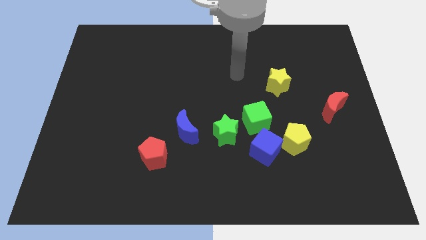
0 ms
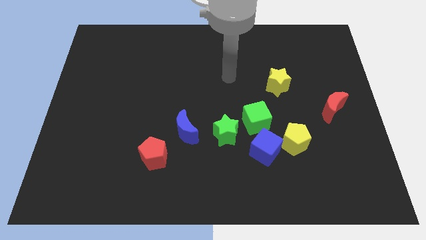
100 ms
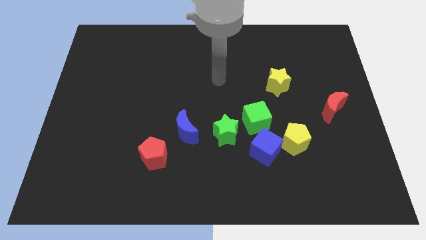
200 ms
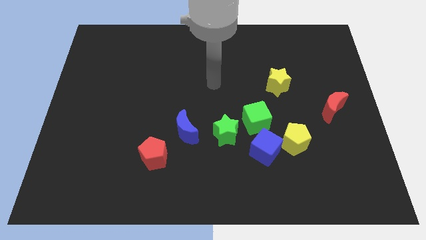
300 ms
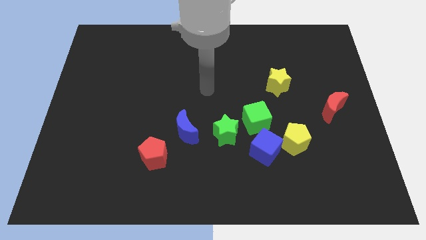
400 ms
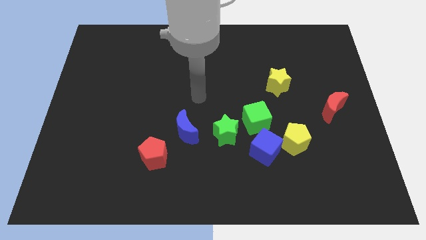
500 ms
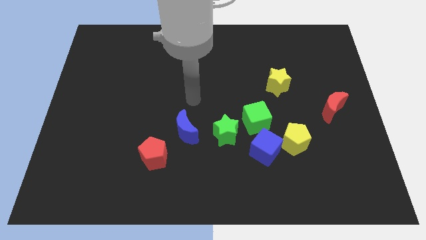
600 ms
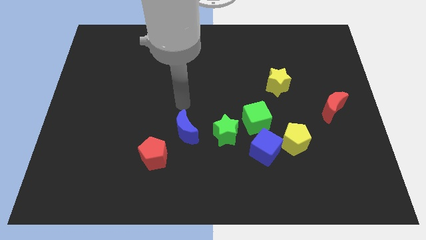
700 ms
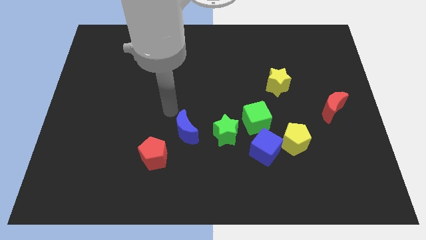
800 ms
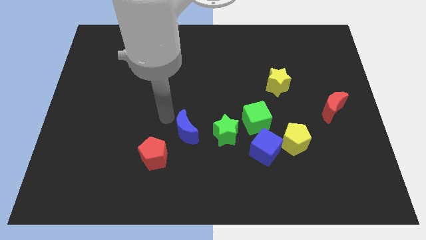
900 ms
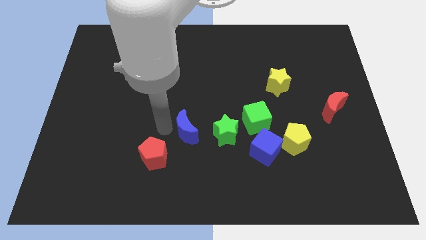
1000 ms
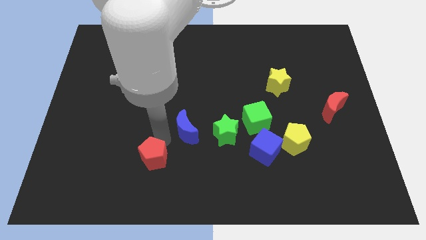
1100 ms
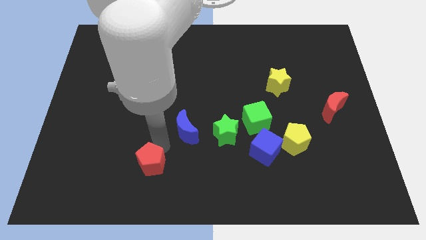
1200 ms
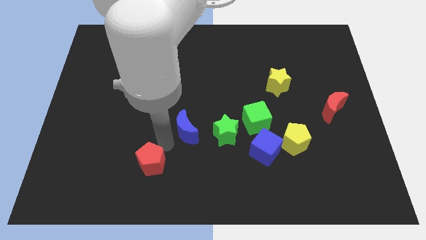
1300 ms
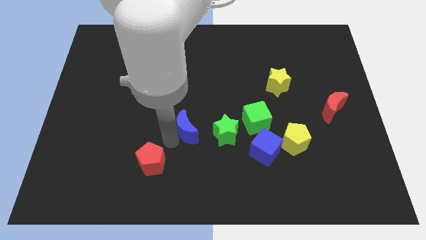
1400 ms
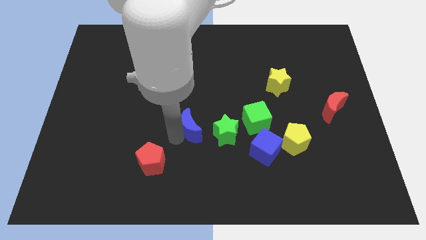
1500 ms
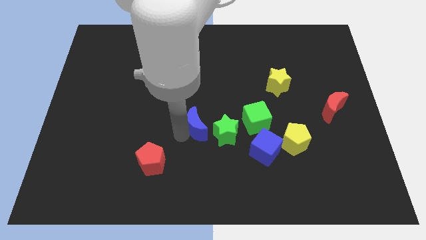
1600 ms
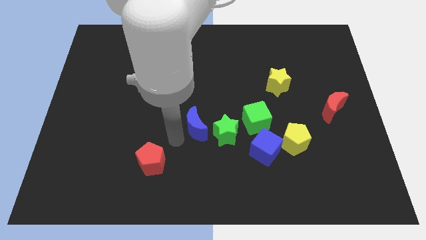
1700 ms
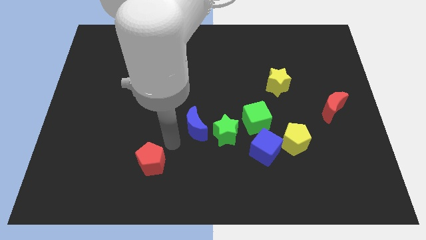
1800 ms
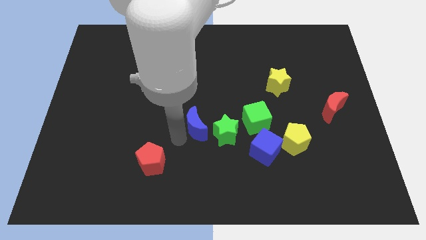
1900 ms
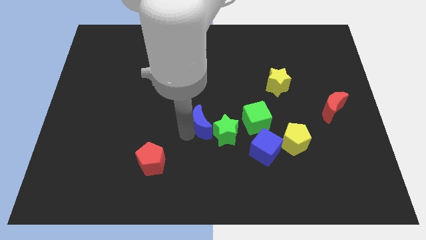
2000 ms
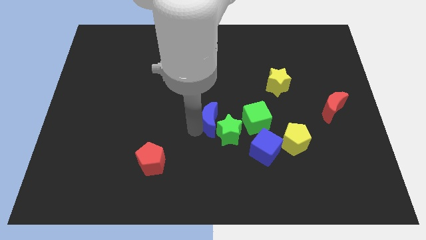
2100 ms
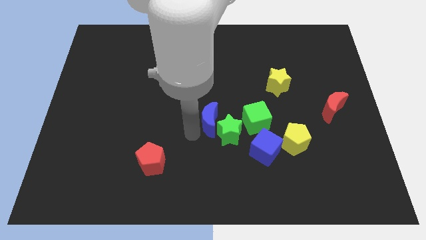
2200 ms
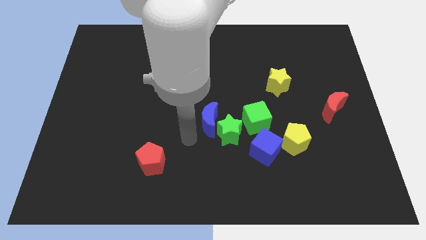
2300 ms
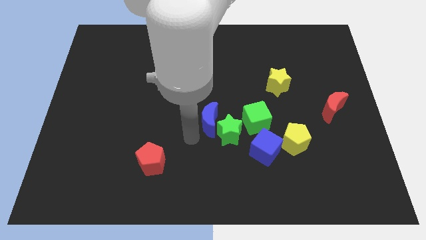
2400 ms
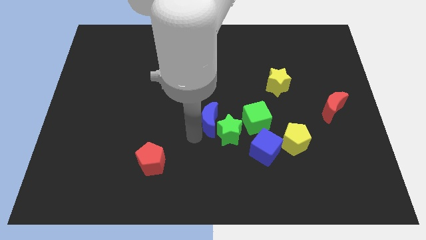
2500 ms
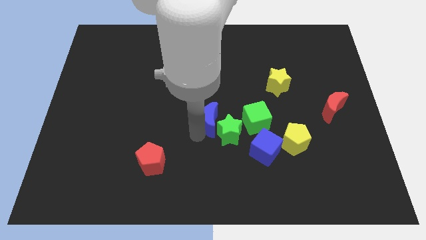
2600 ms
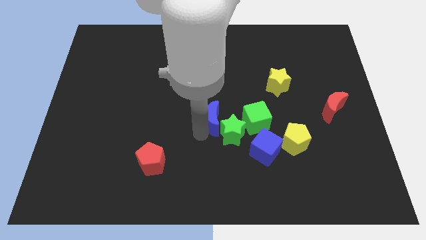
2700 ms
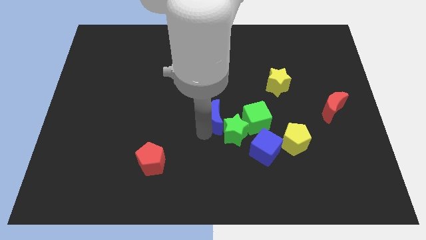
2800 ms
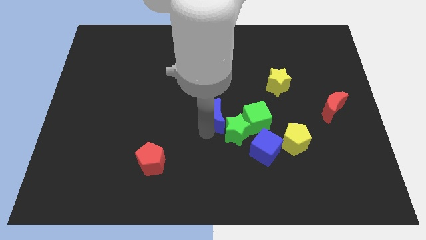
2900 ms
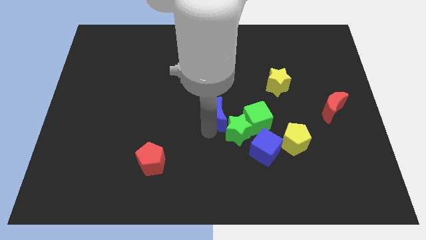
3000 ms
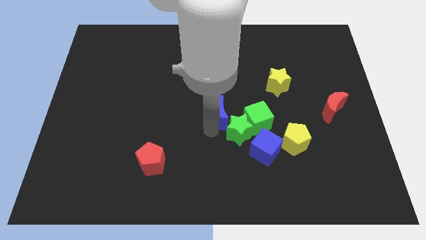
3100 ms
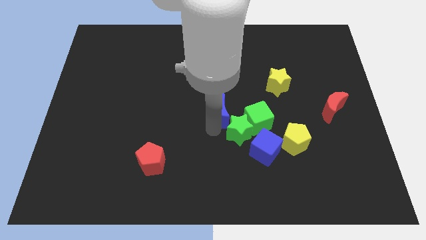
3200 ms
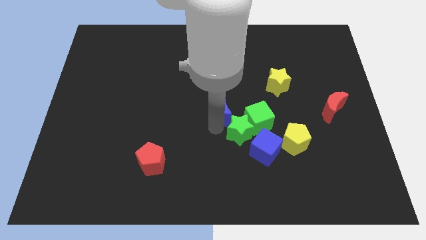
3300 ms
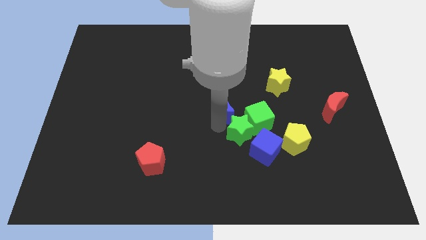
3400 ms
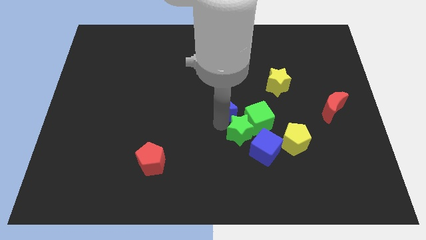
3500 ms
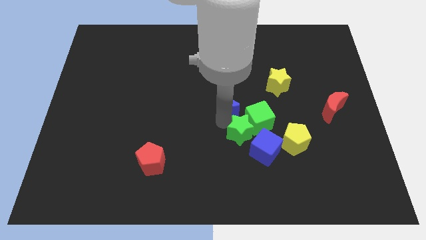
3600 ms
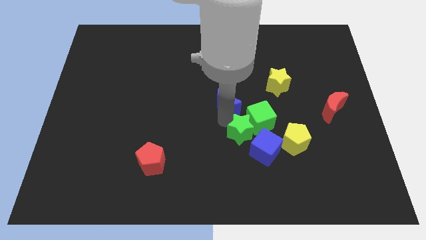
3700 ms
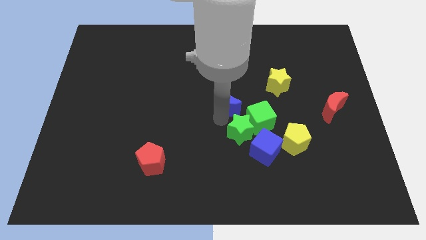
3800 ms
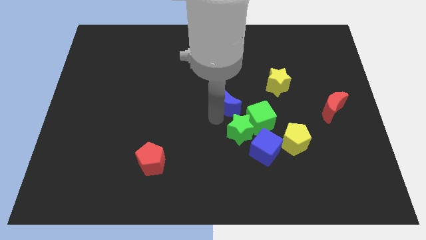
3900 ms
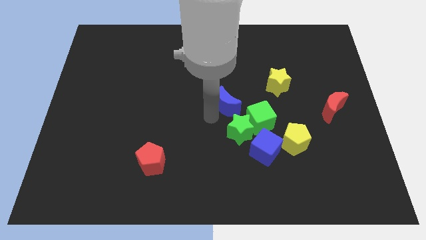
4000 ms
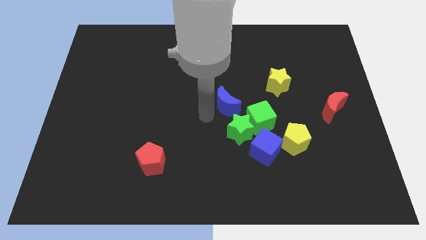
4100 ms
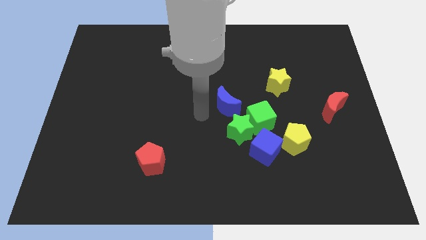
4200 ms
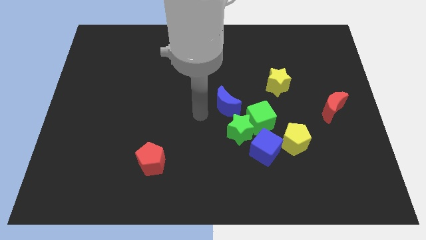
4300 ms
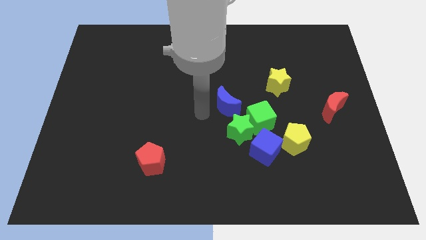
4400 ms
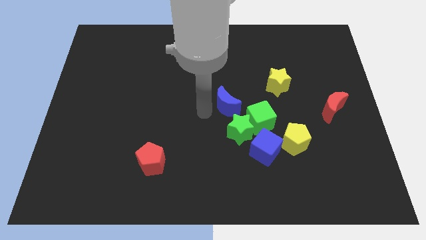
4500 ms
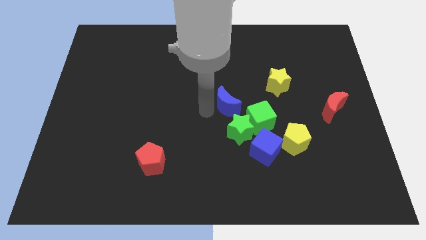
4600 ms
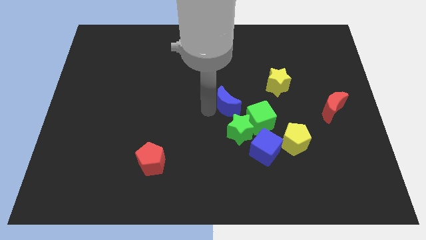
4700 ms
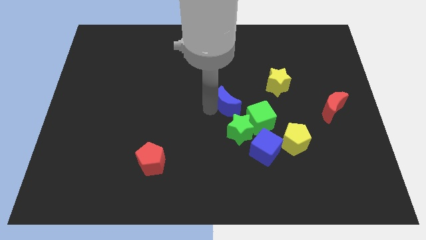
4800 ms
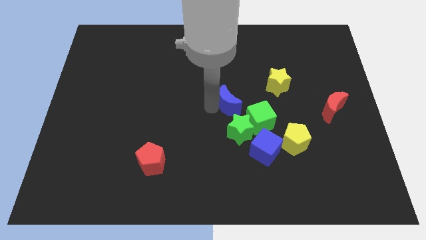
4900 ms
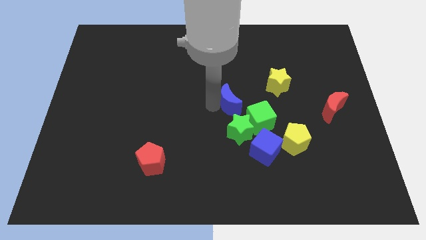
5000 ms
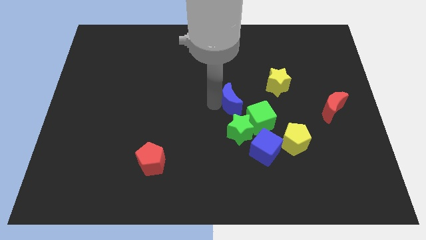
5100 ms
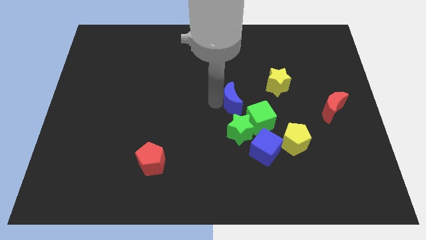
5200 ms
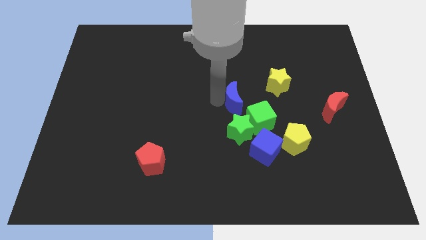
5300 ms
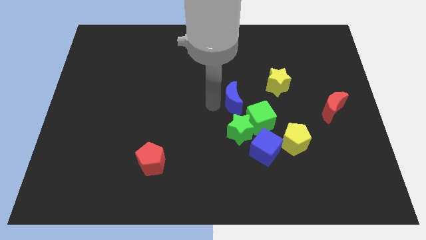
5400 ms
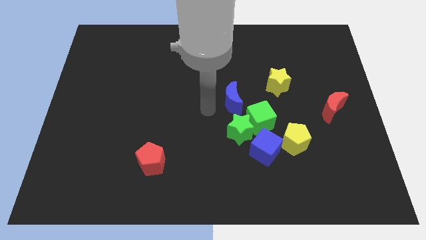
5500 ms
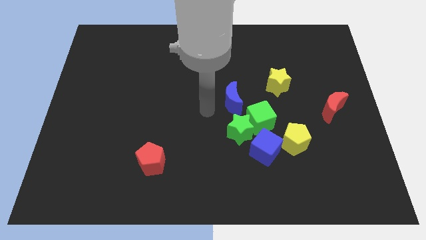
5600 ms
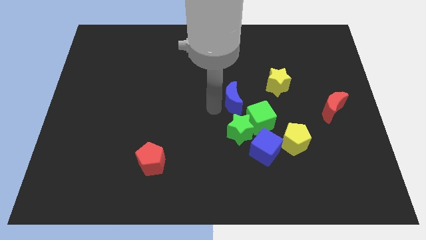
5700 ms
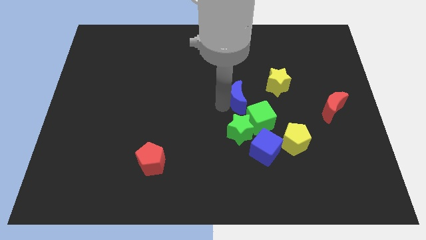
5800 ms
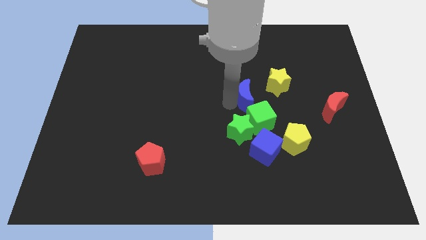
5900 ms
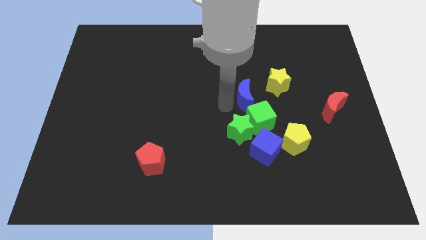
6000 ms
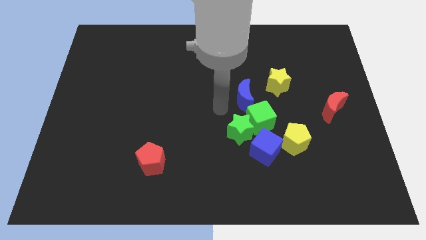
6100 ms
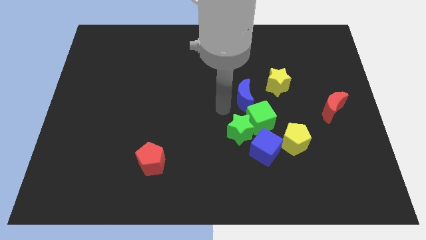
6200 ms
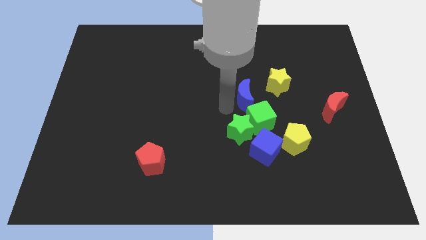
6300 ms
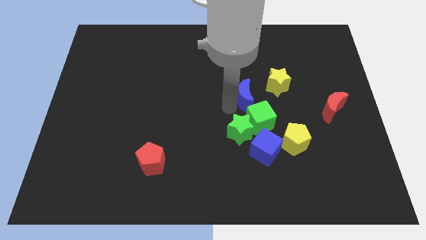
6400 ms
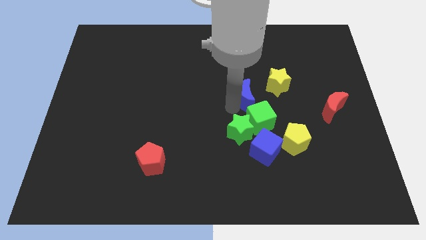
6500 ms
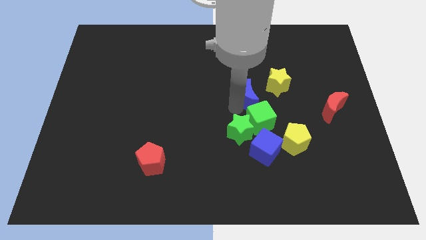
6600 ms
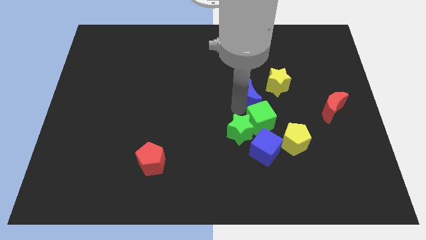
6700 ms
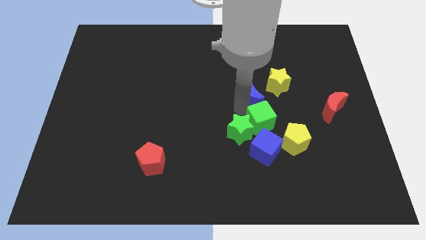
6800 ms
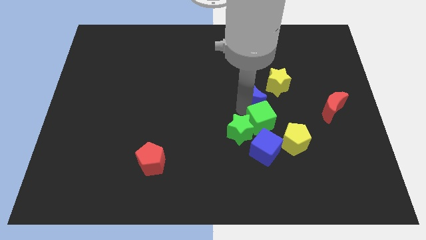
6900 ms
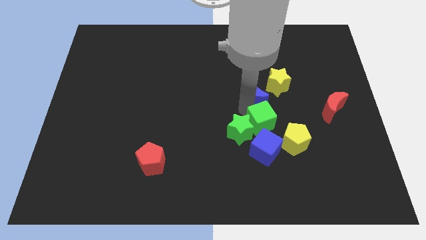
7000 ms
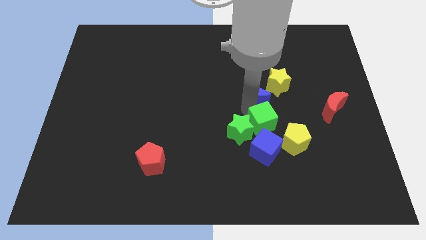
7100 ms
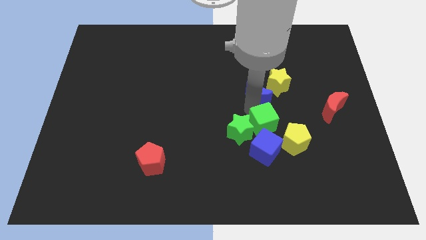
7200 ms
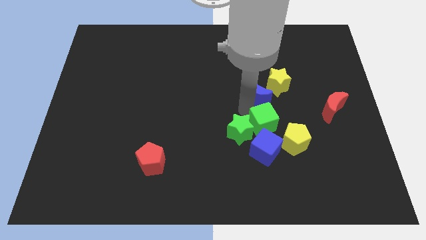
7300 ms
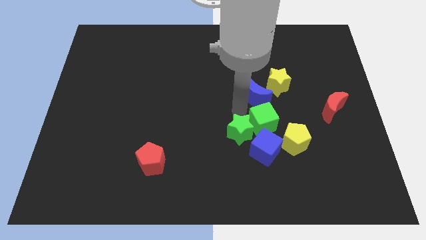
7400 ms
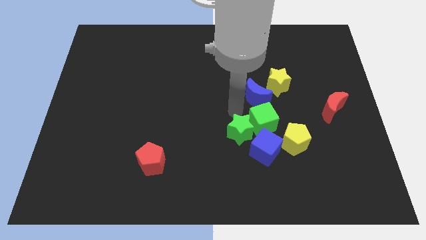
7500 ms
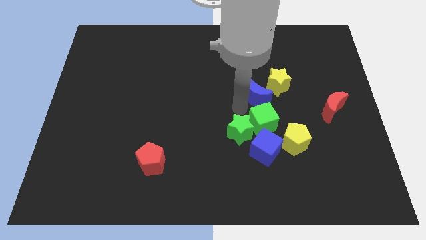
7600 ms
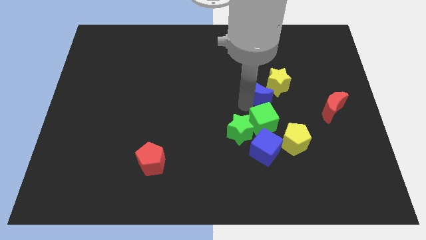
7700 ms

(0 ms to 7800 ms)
push the blue moon towards the yellow star

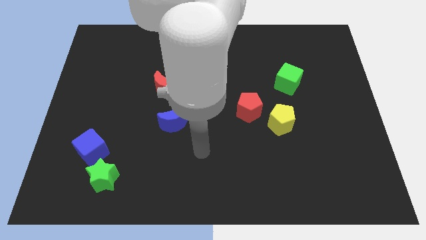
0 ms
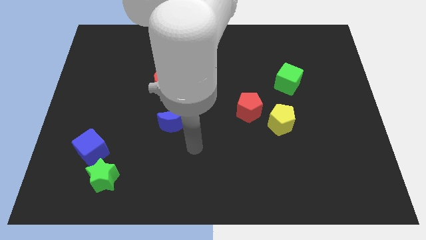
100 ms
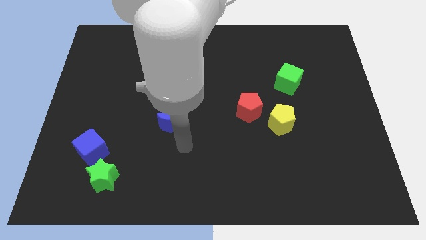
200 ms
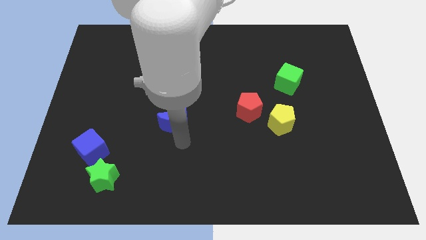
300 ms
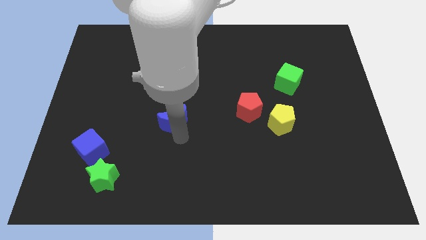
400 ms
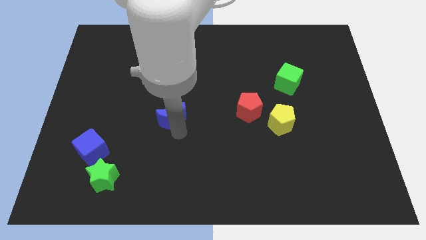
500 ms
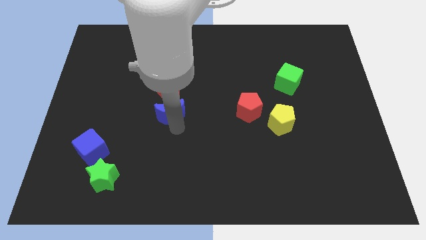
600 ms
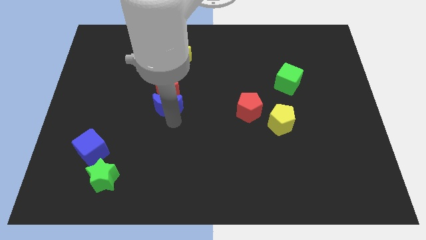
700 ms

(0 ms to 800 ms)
move the blue moon close to the red moon
